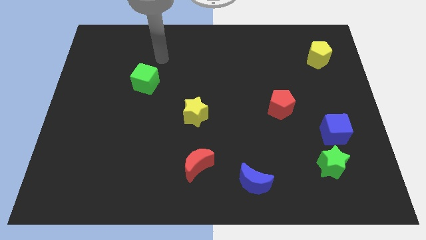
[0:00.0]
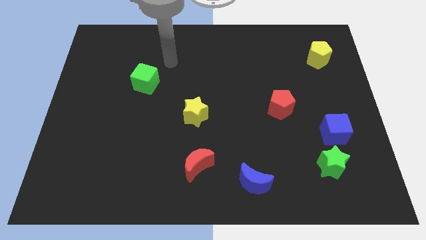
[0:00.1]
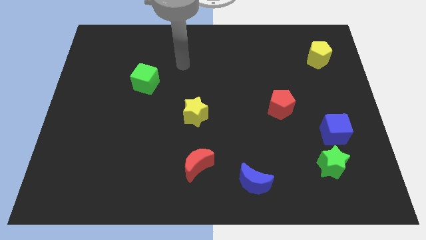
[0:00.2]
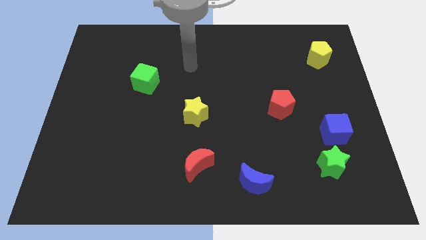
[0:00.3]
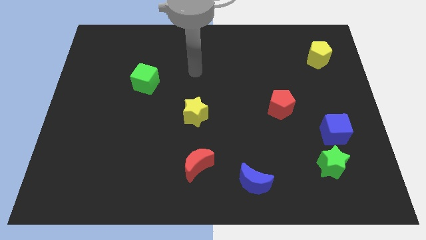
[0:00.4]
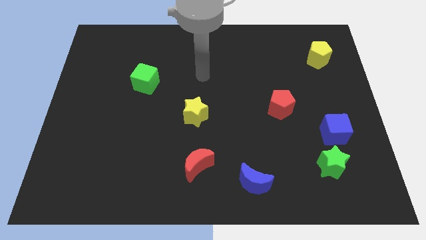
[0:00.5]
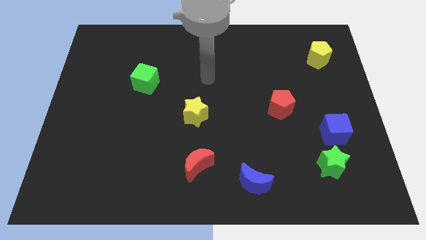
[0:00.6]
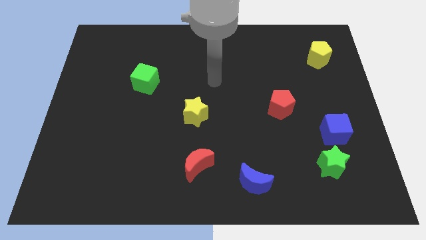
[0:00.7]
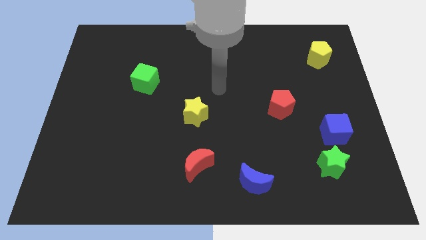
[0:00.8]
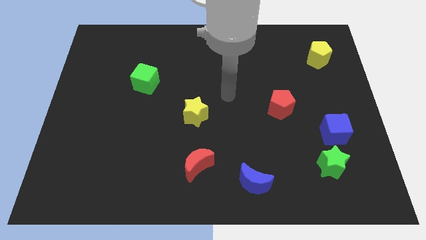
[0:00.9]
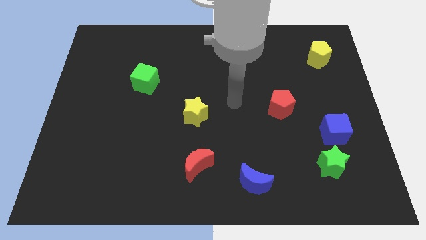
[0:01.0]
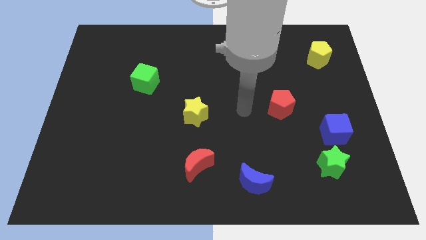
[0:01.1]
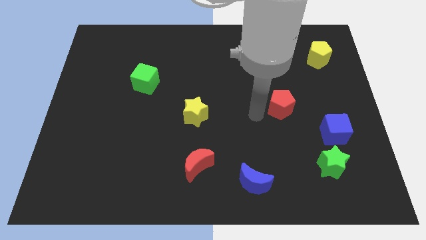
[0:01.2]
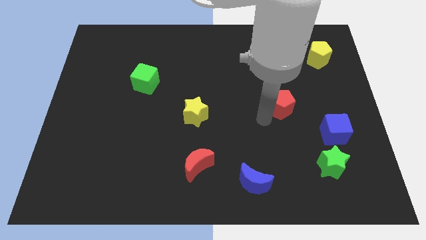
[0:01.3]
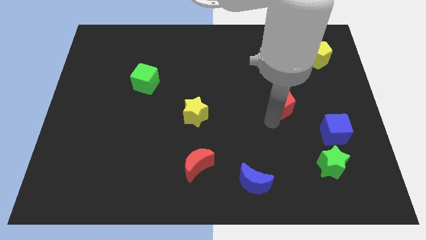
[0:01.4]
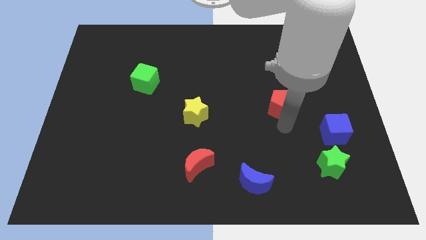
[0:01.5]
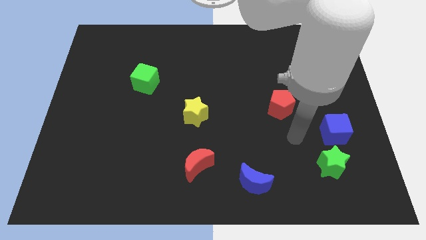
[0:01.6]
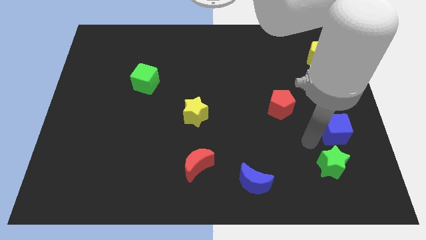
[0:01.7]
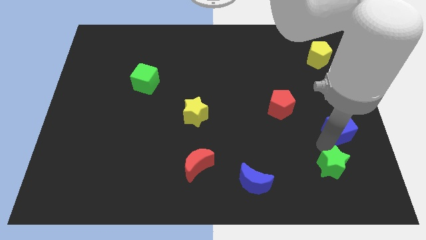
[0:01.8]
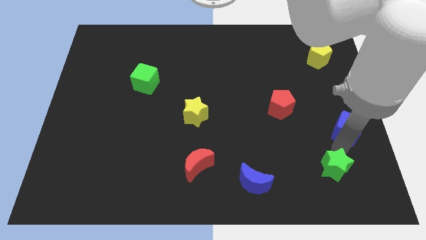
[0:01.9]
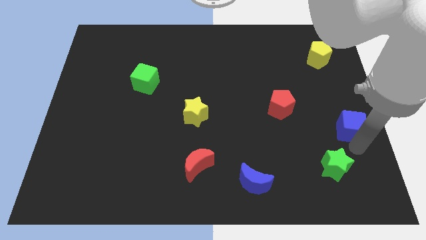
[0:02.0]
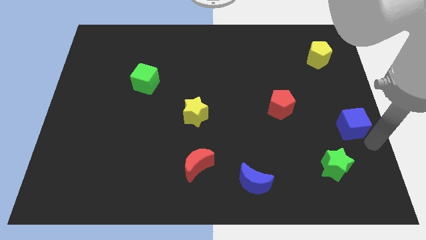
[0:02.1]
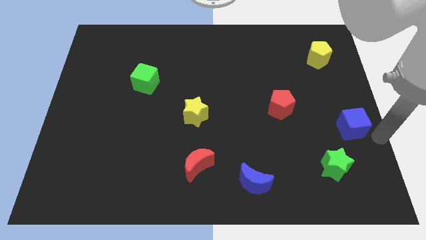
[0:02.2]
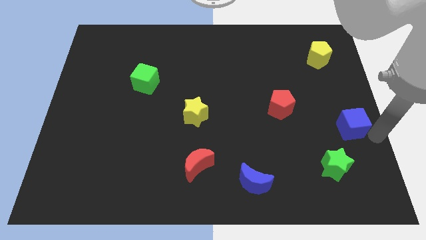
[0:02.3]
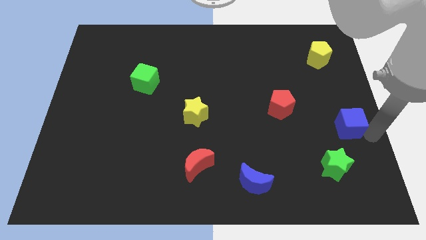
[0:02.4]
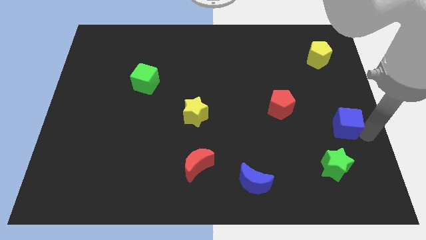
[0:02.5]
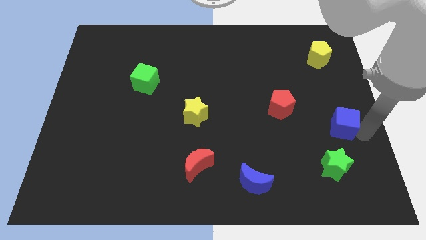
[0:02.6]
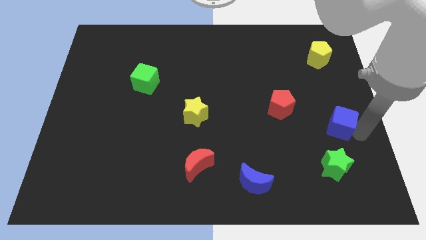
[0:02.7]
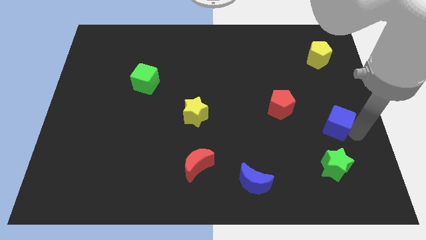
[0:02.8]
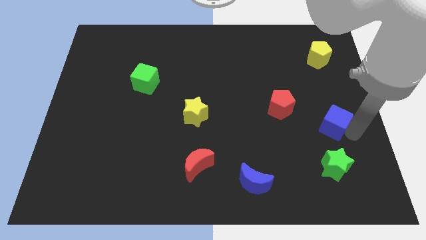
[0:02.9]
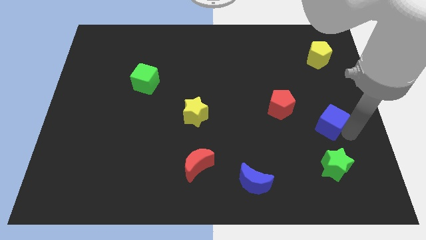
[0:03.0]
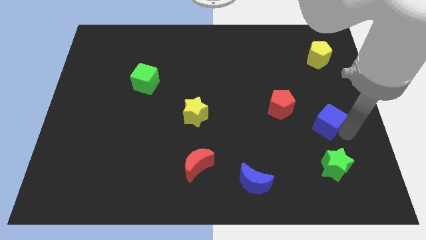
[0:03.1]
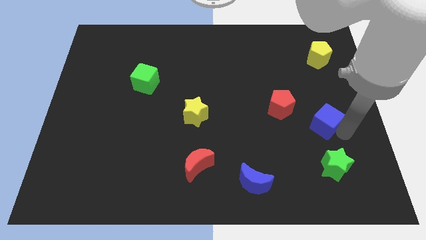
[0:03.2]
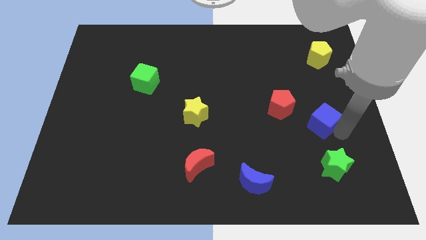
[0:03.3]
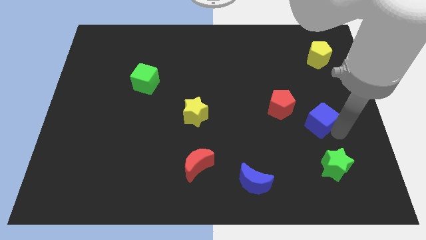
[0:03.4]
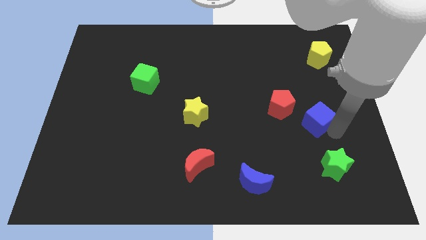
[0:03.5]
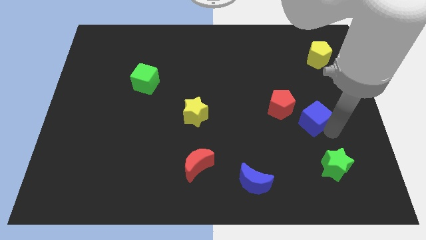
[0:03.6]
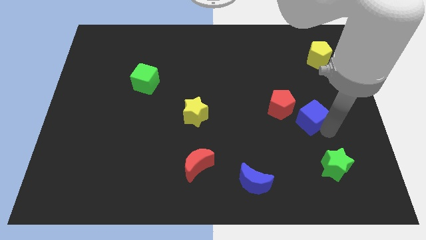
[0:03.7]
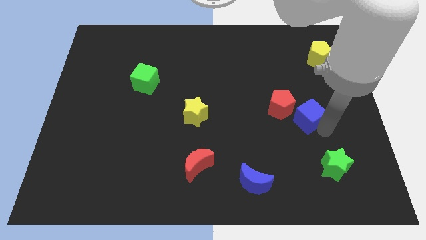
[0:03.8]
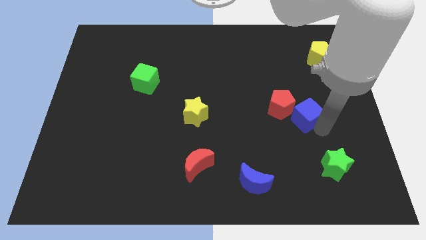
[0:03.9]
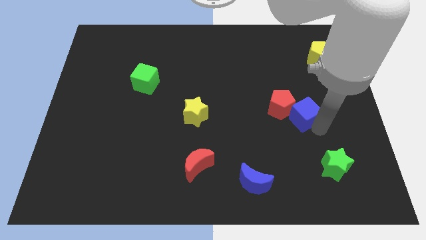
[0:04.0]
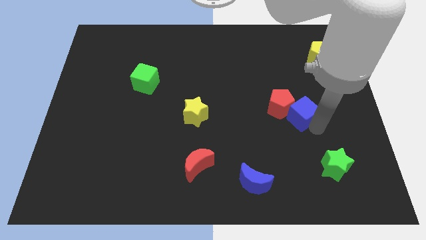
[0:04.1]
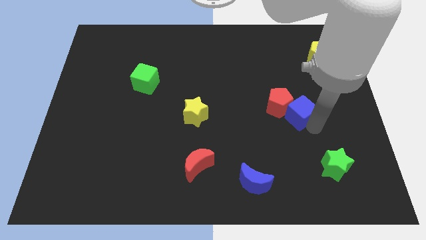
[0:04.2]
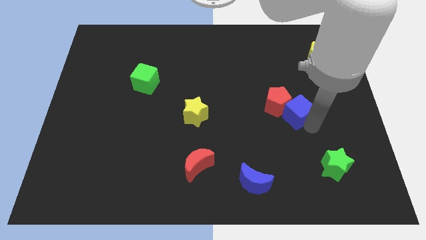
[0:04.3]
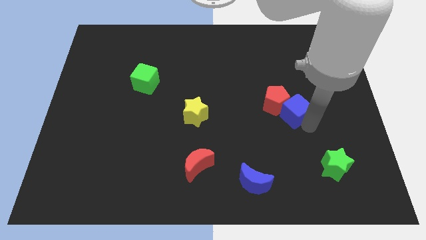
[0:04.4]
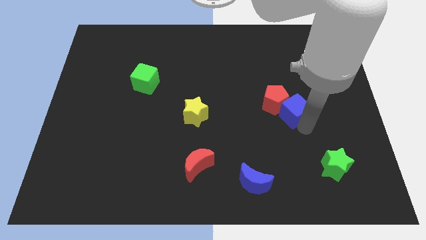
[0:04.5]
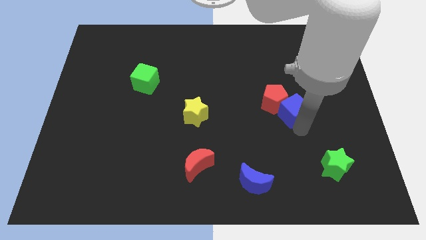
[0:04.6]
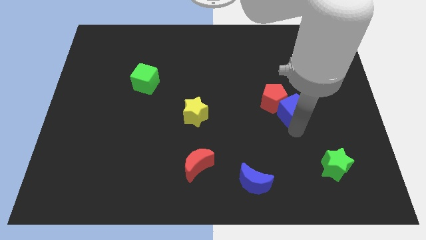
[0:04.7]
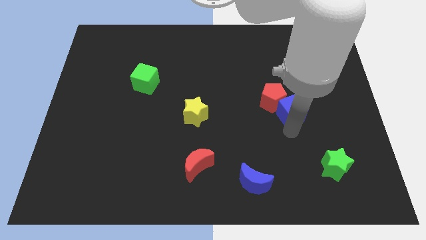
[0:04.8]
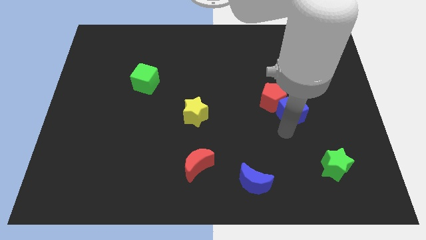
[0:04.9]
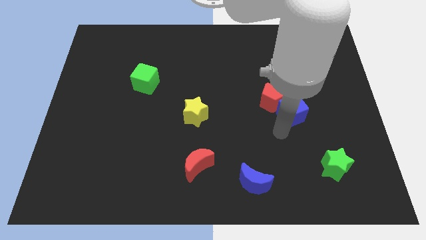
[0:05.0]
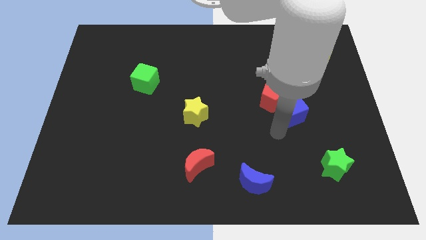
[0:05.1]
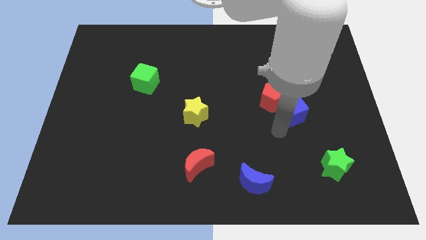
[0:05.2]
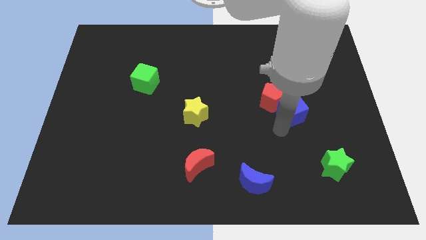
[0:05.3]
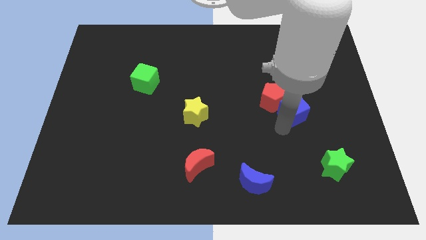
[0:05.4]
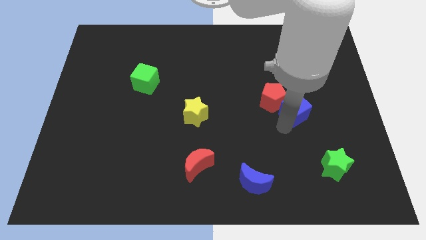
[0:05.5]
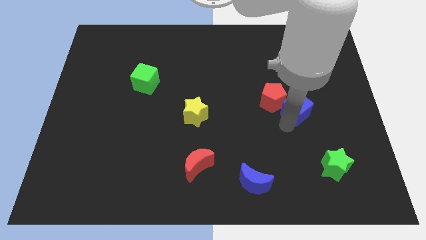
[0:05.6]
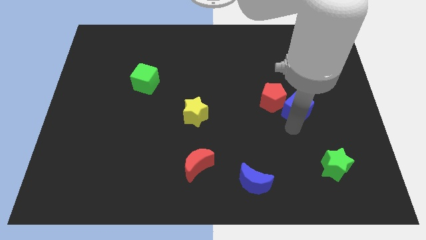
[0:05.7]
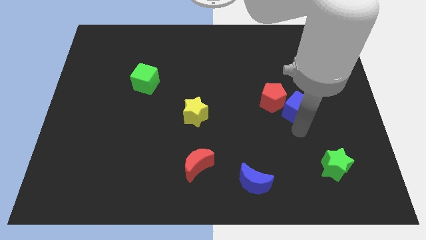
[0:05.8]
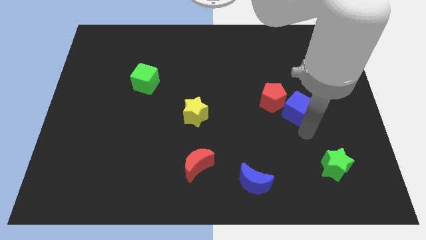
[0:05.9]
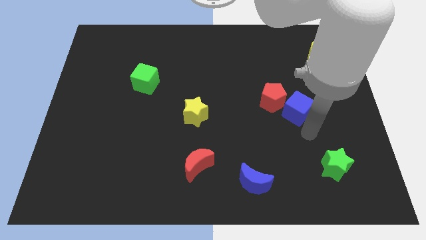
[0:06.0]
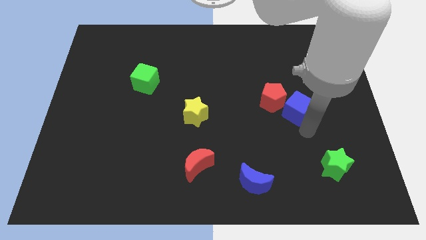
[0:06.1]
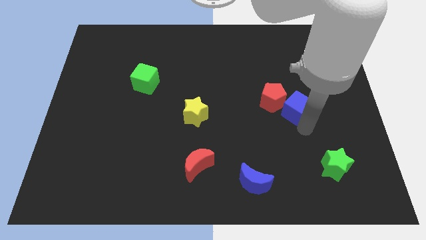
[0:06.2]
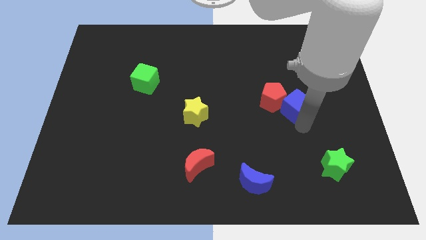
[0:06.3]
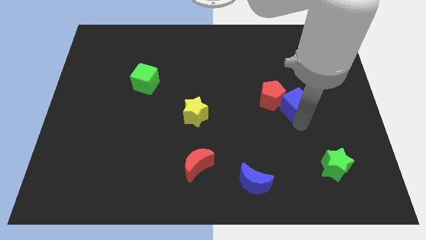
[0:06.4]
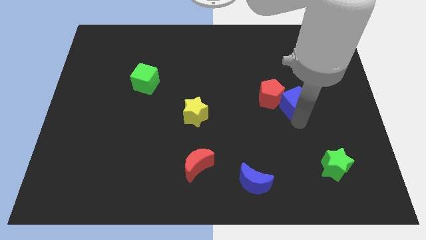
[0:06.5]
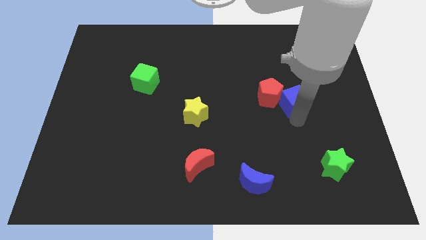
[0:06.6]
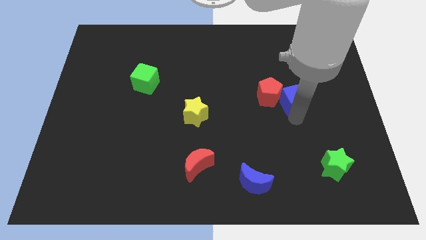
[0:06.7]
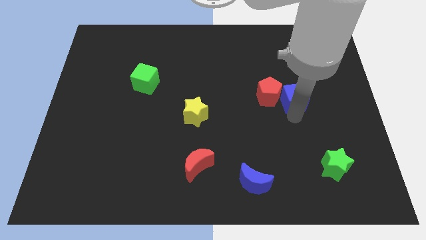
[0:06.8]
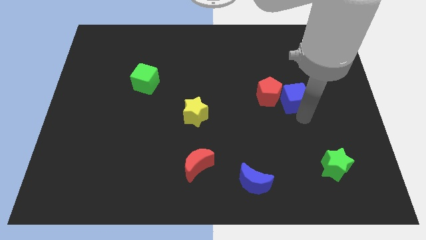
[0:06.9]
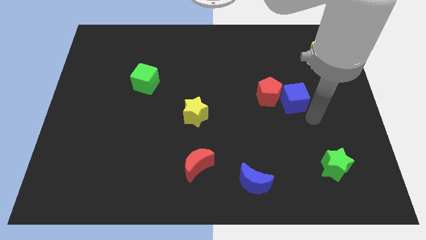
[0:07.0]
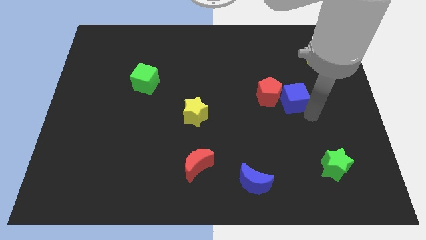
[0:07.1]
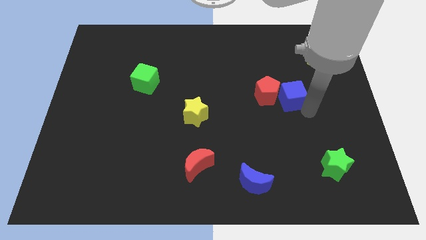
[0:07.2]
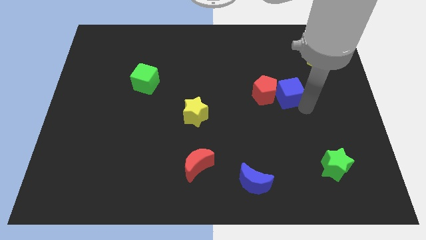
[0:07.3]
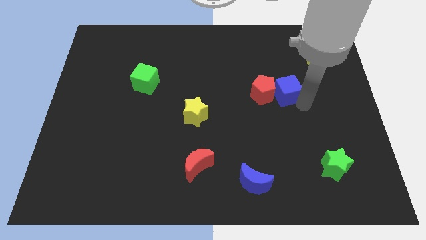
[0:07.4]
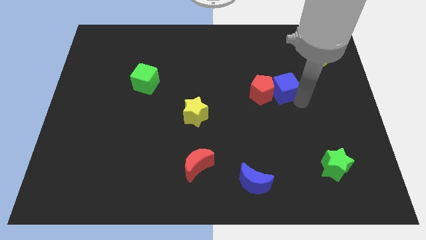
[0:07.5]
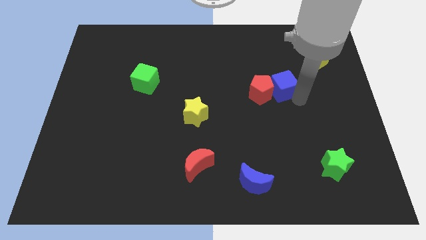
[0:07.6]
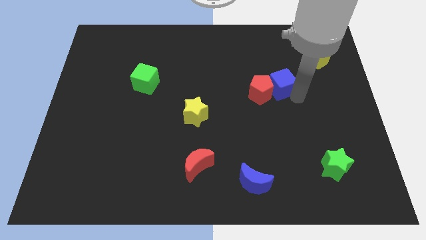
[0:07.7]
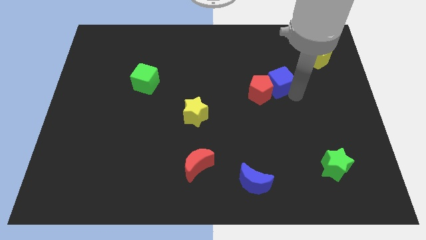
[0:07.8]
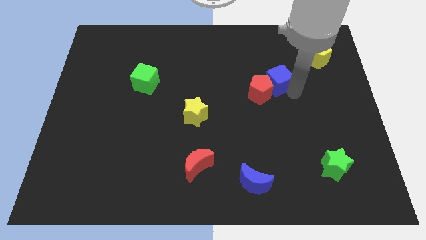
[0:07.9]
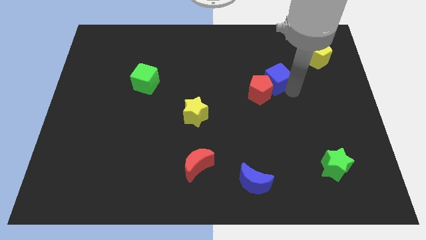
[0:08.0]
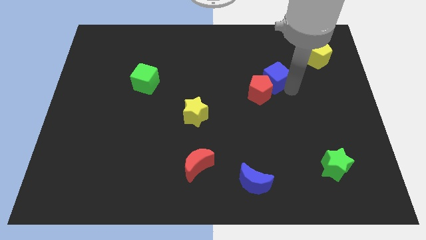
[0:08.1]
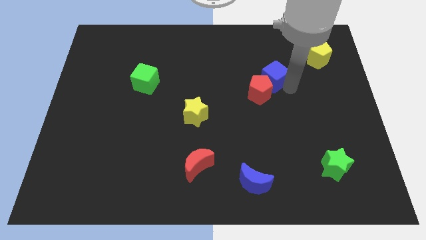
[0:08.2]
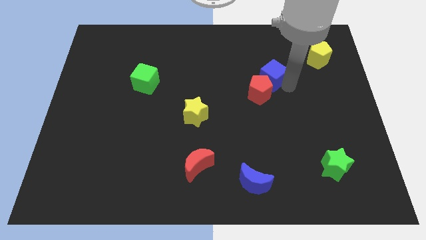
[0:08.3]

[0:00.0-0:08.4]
push the blue cube up and to the left diagonally
